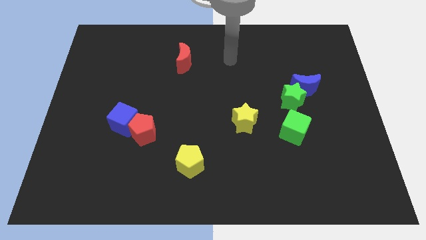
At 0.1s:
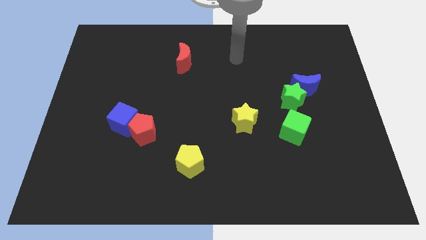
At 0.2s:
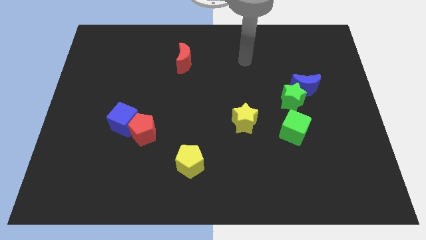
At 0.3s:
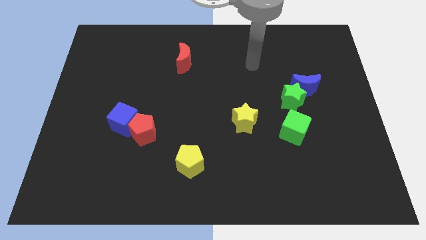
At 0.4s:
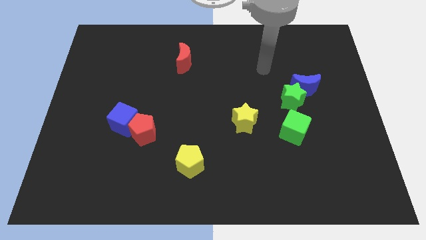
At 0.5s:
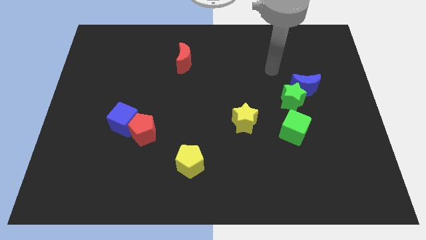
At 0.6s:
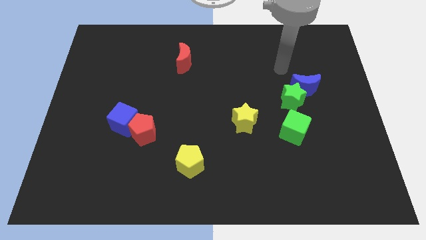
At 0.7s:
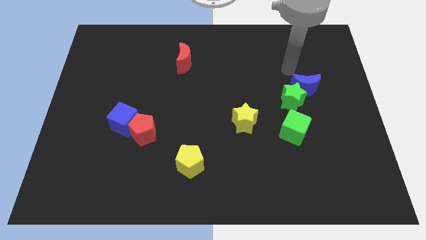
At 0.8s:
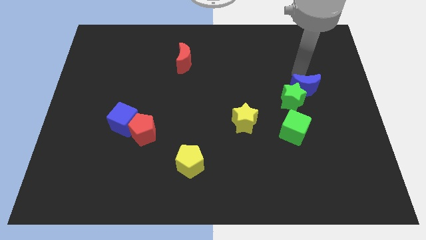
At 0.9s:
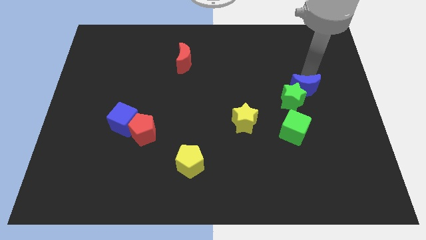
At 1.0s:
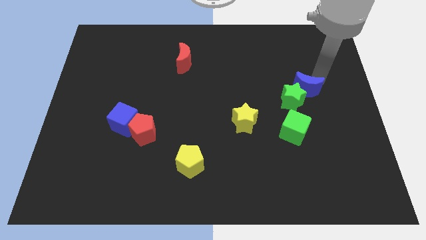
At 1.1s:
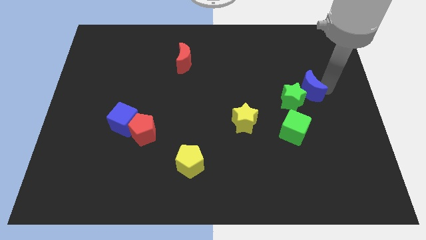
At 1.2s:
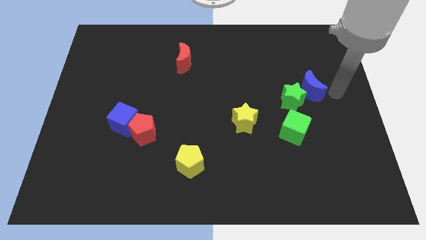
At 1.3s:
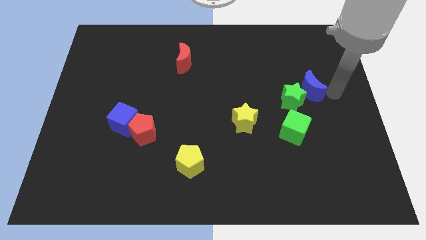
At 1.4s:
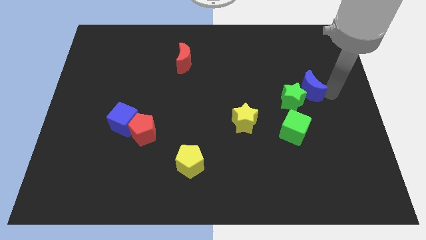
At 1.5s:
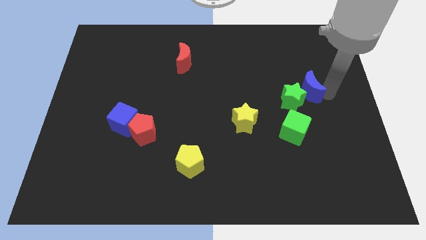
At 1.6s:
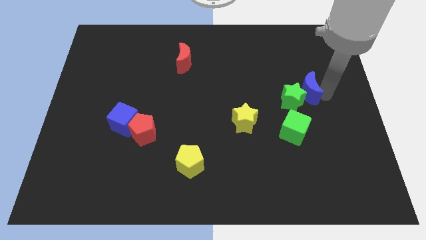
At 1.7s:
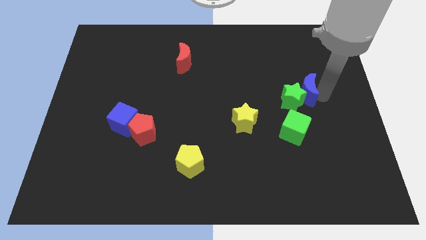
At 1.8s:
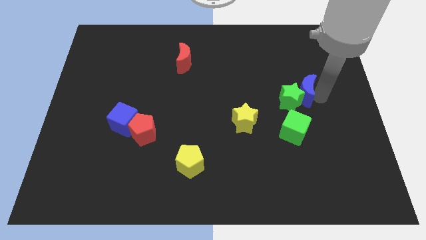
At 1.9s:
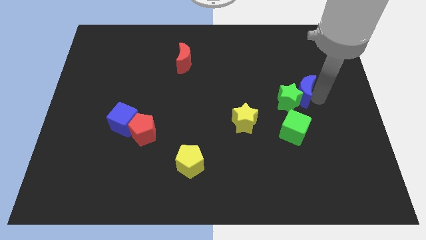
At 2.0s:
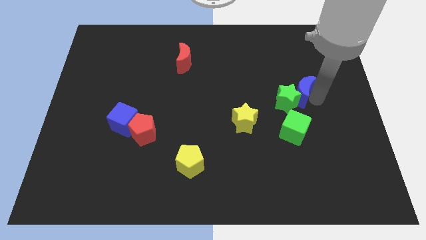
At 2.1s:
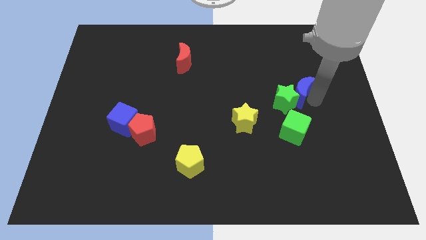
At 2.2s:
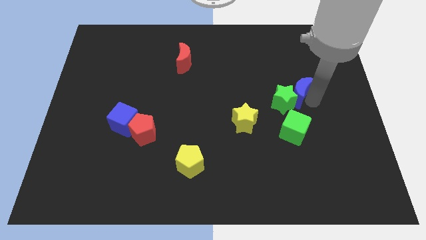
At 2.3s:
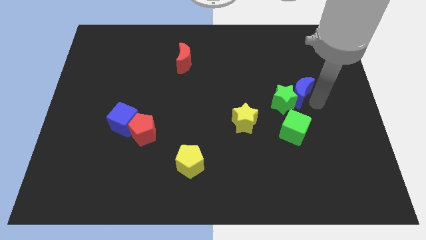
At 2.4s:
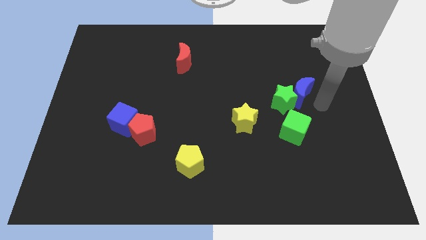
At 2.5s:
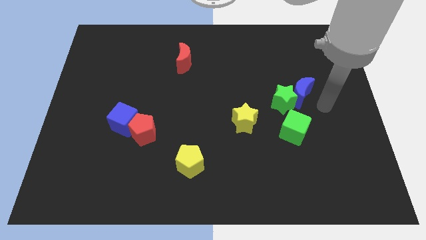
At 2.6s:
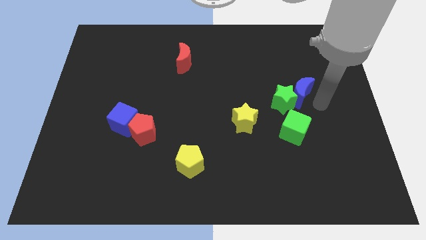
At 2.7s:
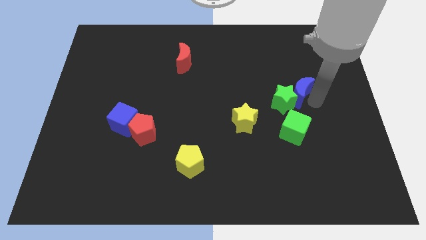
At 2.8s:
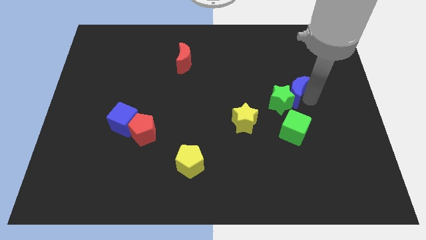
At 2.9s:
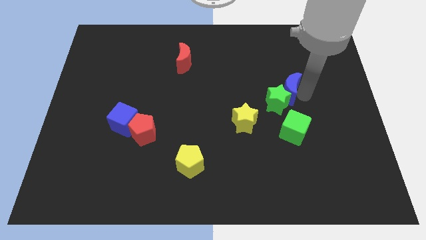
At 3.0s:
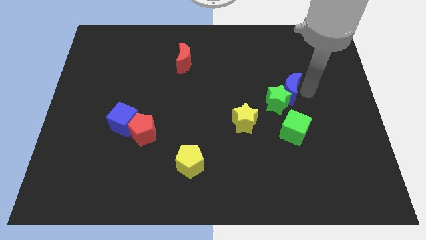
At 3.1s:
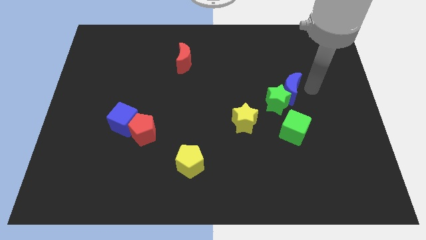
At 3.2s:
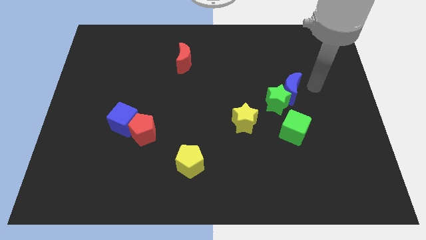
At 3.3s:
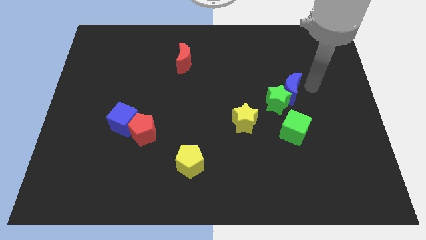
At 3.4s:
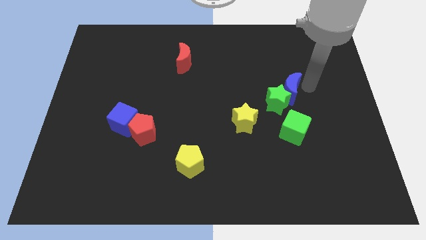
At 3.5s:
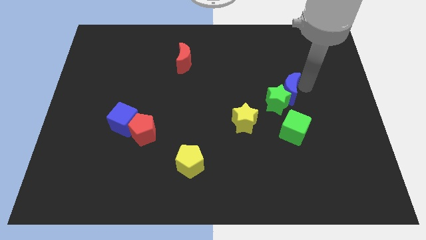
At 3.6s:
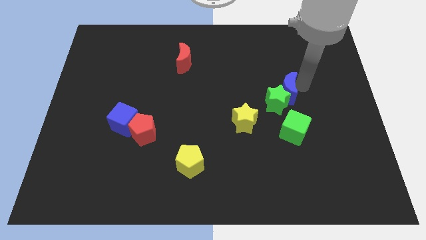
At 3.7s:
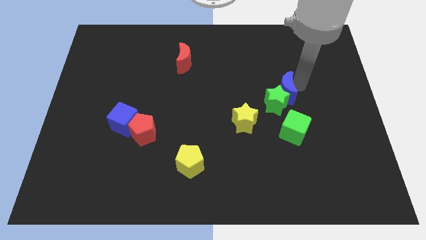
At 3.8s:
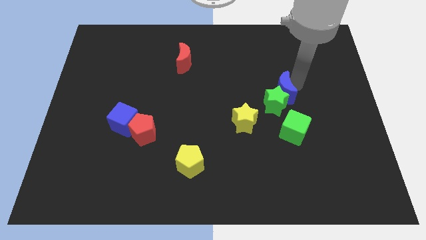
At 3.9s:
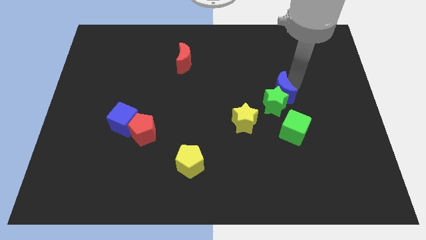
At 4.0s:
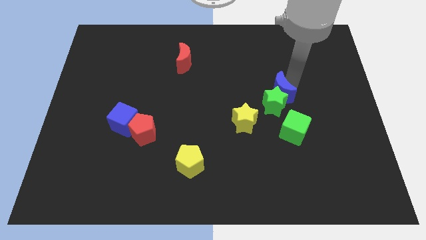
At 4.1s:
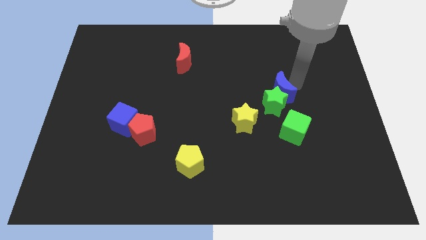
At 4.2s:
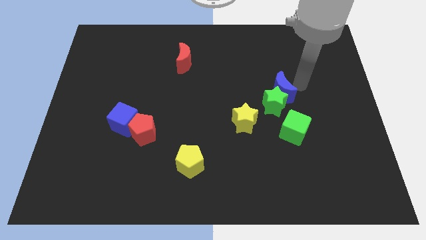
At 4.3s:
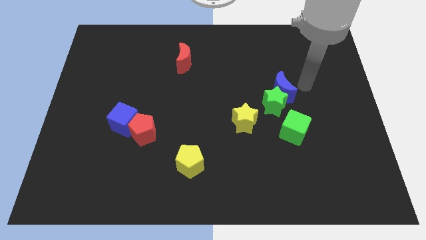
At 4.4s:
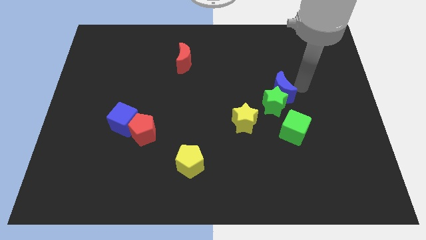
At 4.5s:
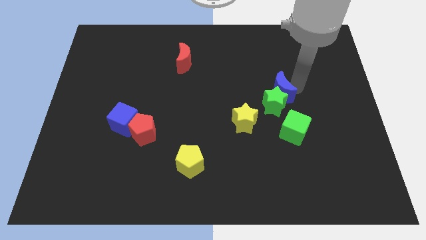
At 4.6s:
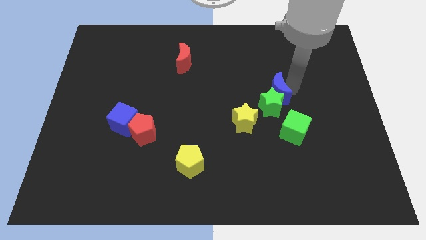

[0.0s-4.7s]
slightly move the blue moon to the left

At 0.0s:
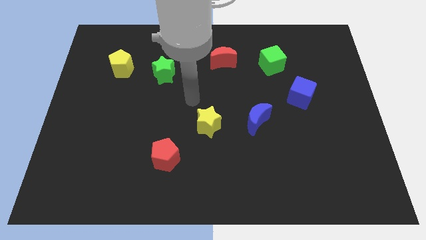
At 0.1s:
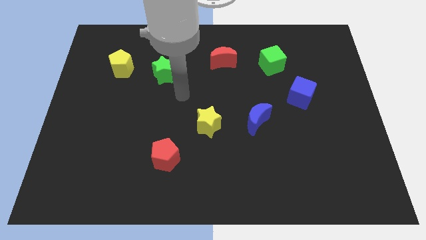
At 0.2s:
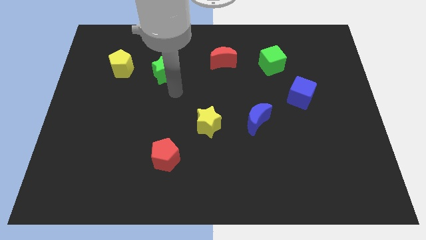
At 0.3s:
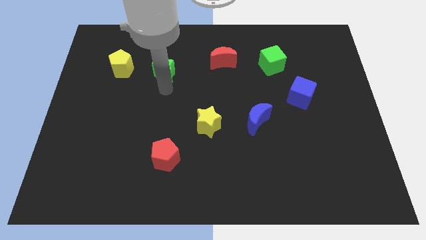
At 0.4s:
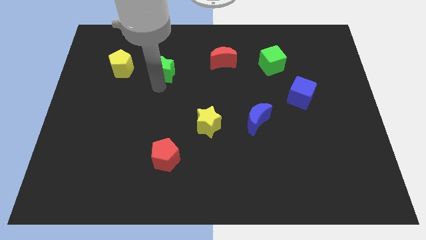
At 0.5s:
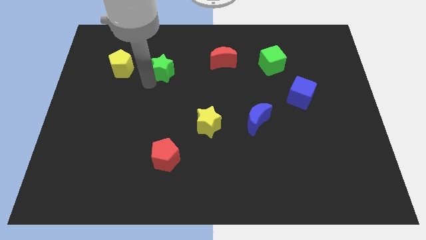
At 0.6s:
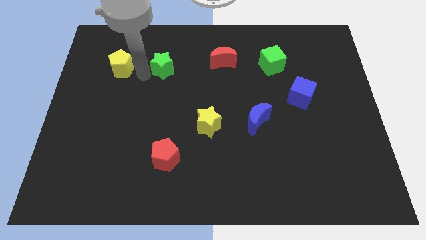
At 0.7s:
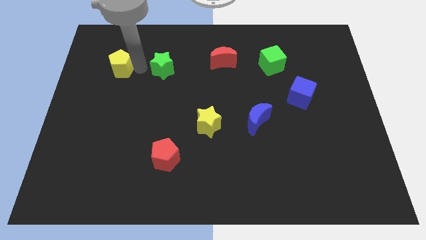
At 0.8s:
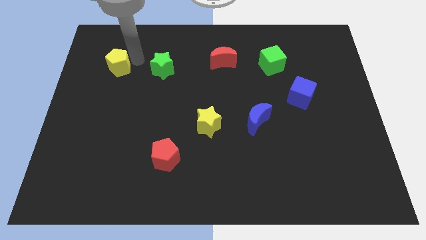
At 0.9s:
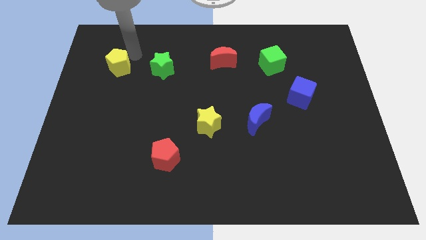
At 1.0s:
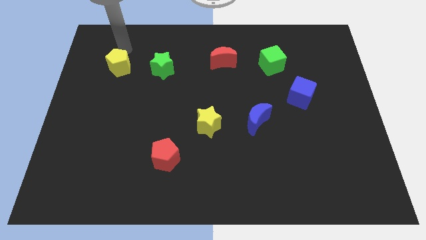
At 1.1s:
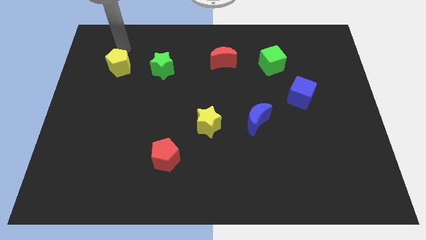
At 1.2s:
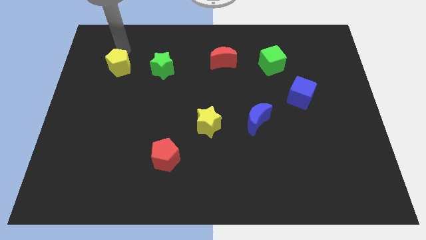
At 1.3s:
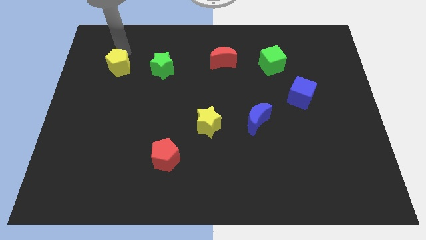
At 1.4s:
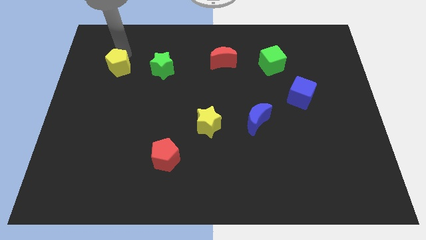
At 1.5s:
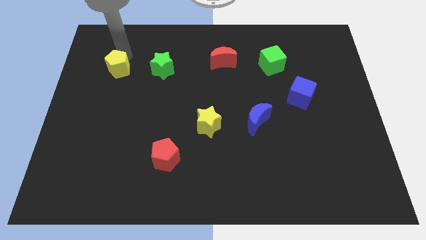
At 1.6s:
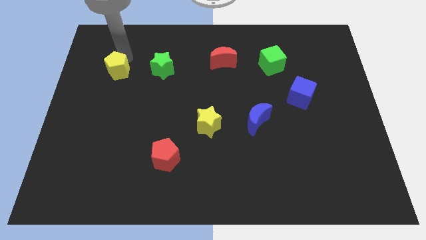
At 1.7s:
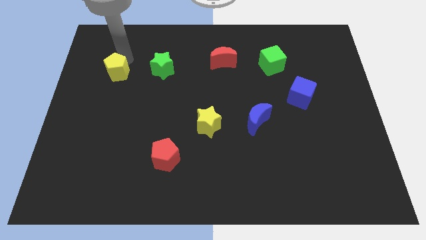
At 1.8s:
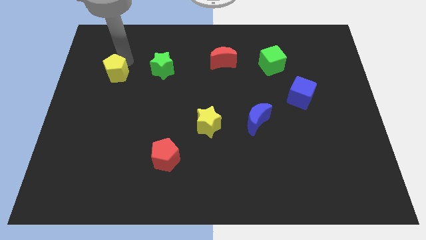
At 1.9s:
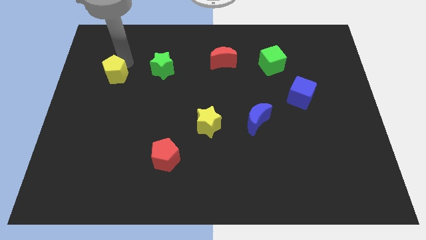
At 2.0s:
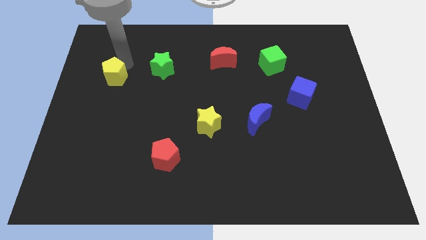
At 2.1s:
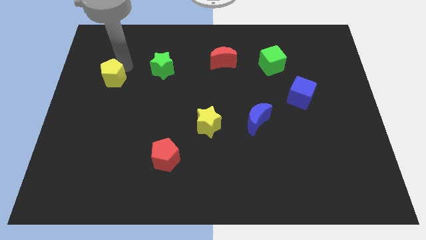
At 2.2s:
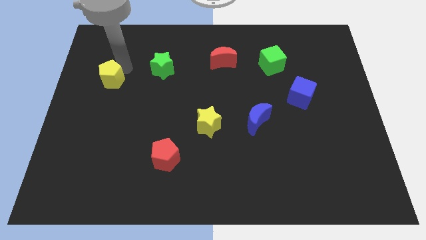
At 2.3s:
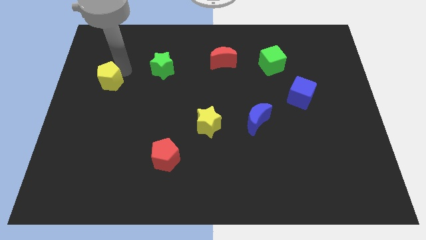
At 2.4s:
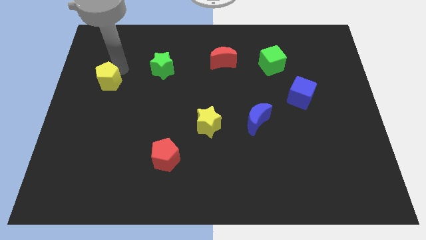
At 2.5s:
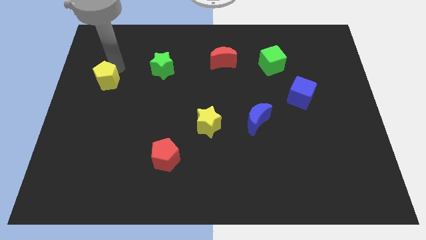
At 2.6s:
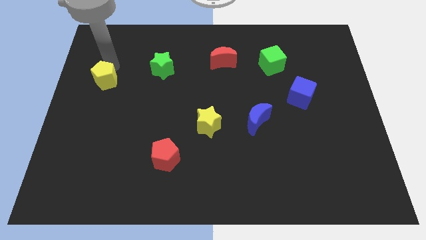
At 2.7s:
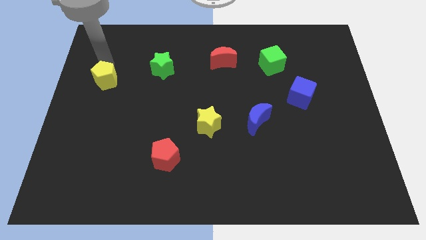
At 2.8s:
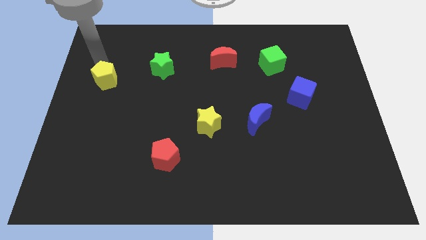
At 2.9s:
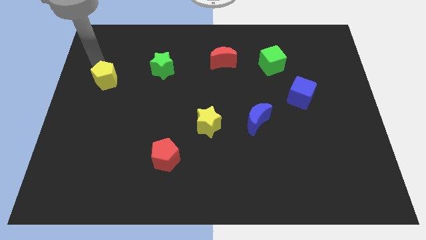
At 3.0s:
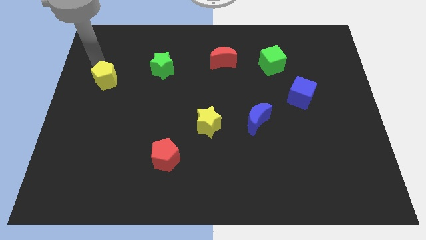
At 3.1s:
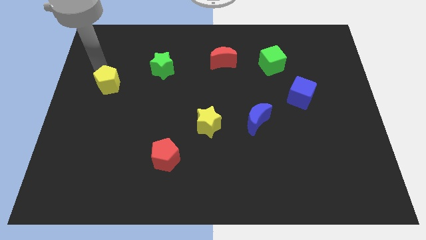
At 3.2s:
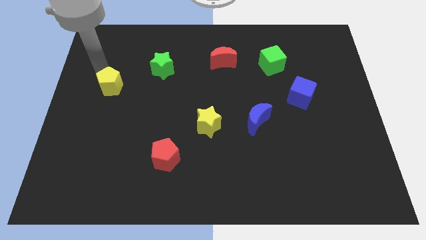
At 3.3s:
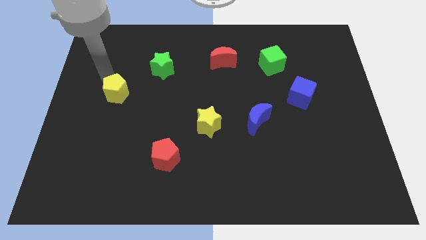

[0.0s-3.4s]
slightly slide the yellow pentagon down
